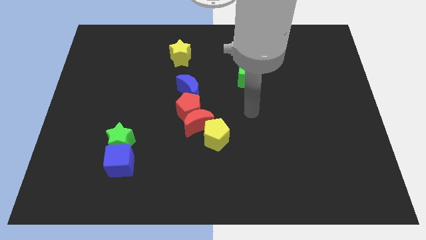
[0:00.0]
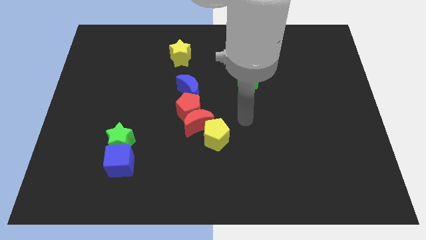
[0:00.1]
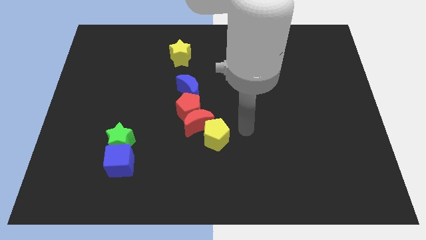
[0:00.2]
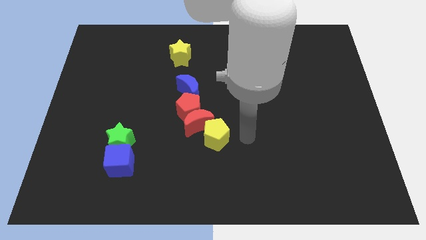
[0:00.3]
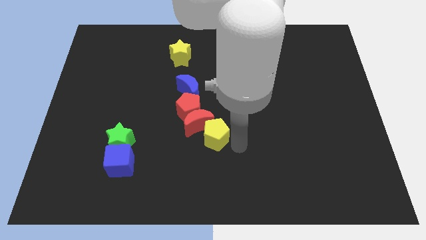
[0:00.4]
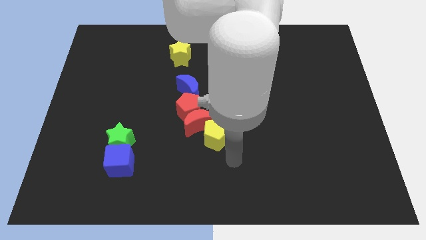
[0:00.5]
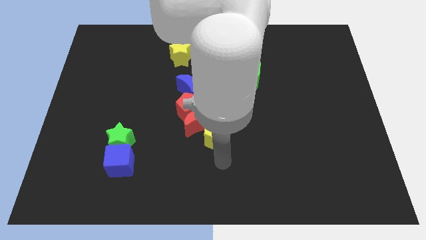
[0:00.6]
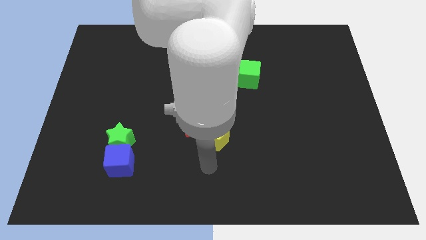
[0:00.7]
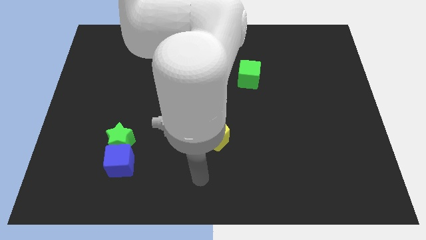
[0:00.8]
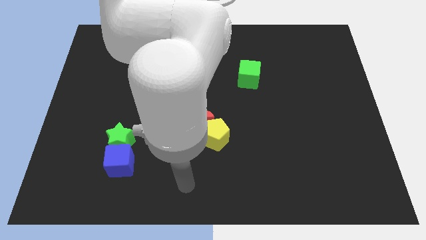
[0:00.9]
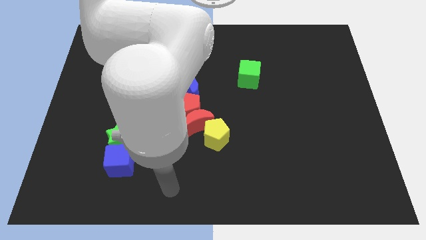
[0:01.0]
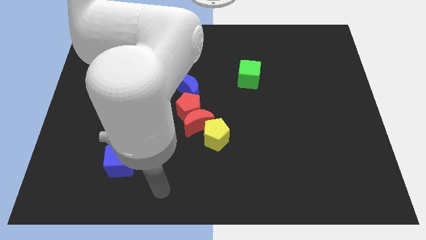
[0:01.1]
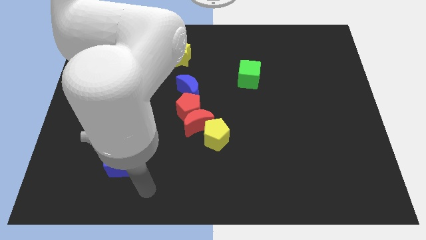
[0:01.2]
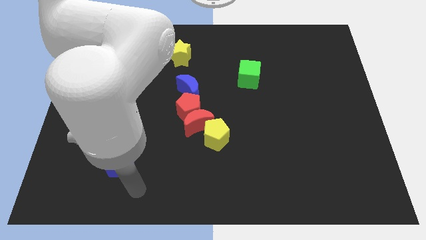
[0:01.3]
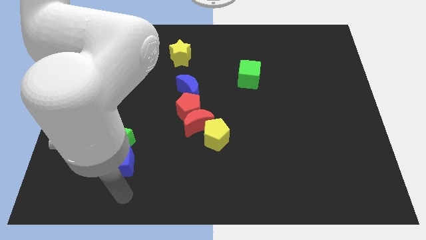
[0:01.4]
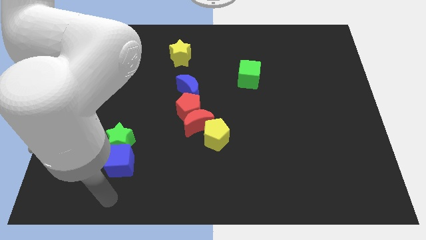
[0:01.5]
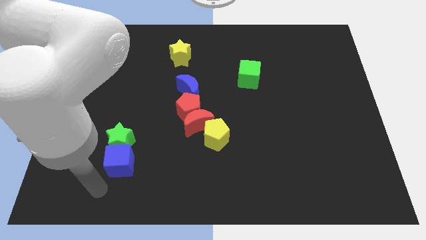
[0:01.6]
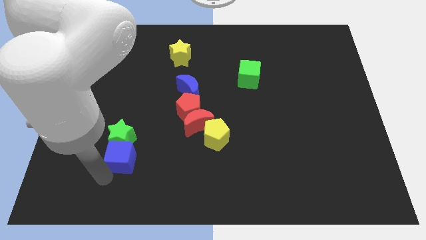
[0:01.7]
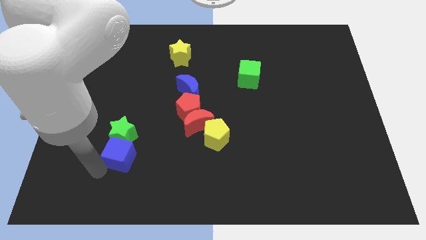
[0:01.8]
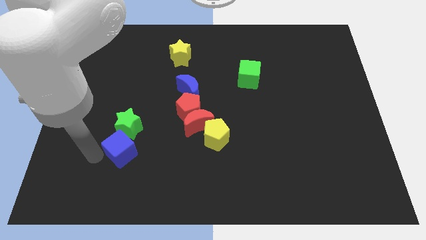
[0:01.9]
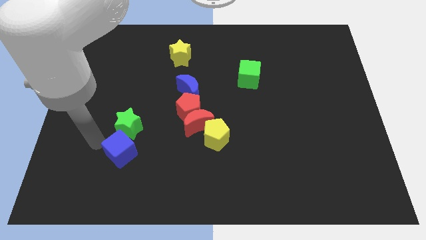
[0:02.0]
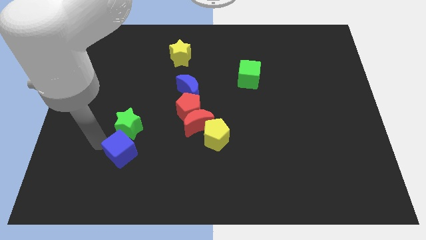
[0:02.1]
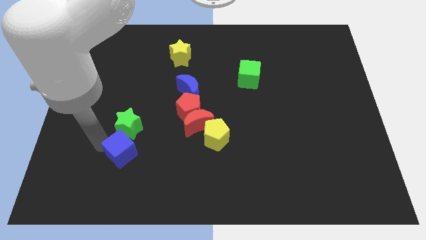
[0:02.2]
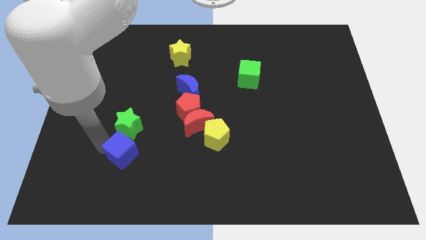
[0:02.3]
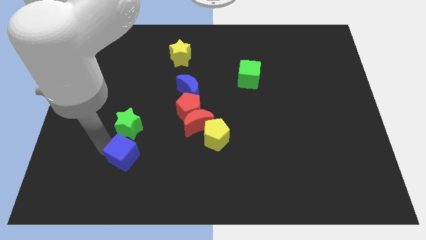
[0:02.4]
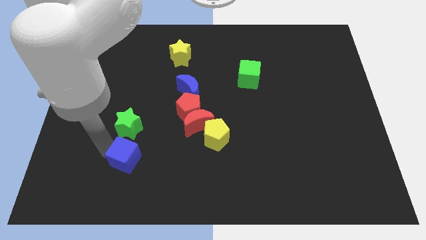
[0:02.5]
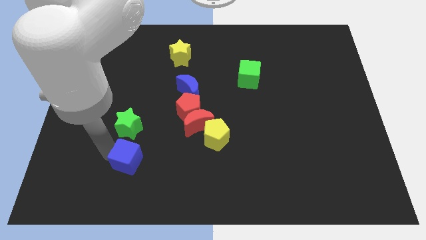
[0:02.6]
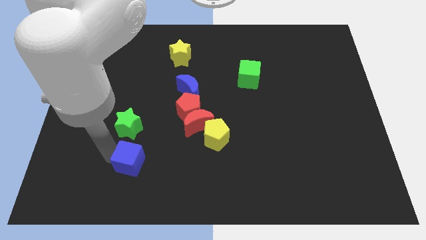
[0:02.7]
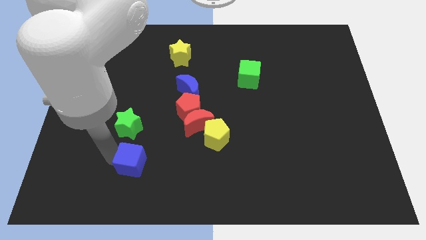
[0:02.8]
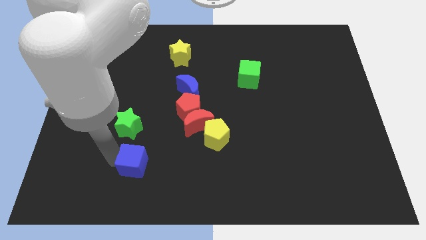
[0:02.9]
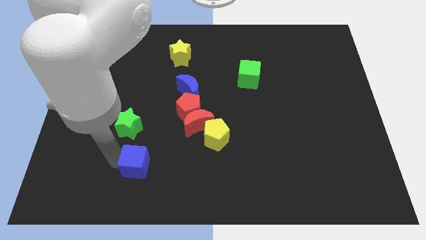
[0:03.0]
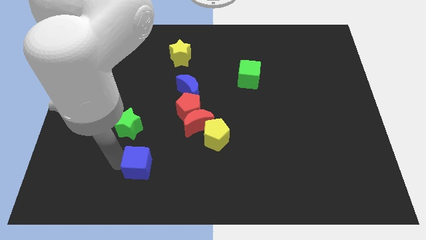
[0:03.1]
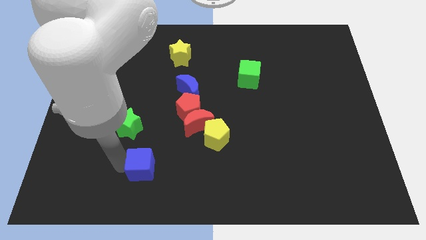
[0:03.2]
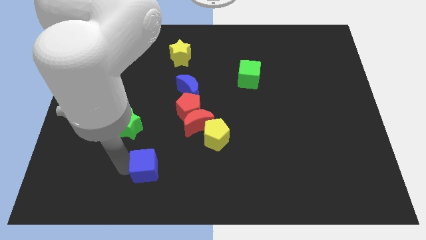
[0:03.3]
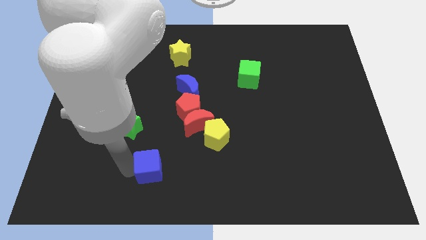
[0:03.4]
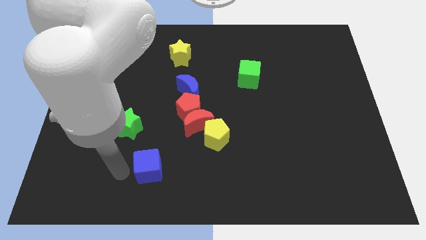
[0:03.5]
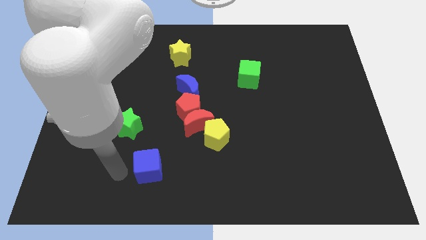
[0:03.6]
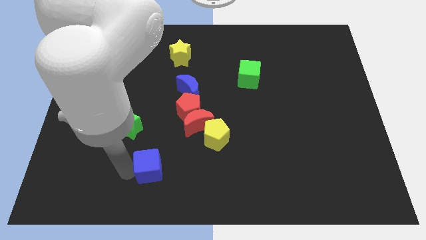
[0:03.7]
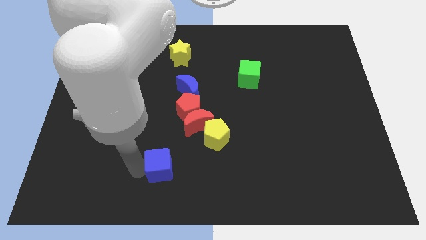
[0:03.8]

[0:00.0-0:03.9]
slightly move the blue cube right

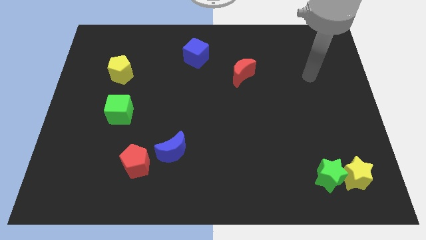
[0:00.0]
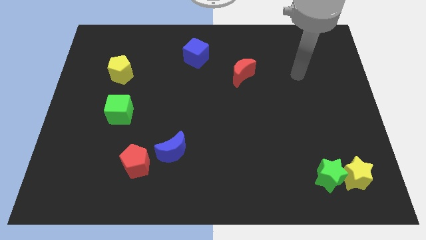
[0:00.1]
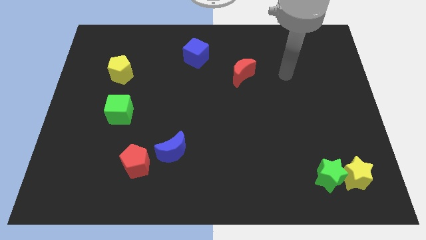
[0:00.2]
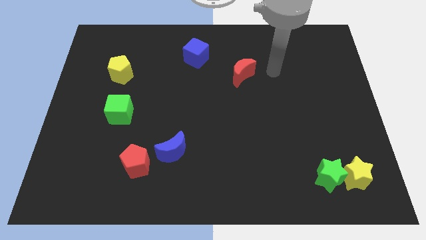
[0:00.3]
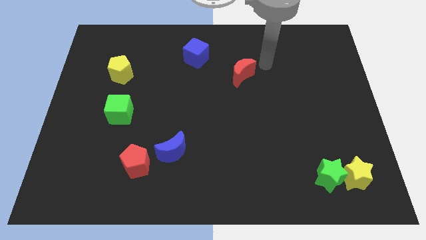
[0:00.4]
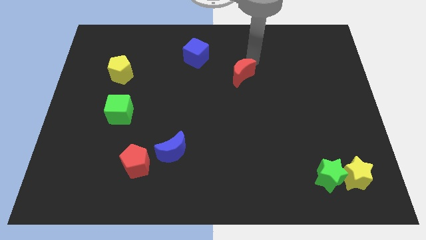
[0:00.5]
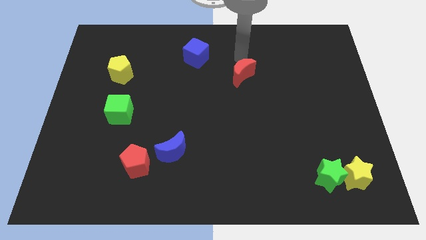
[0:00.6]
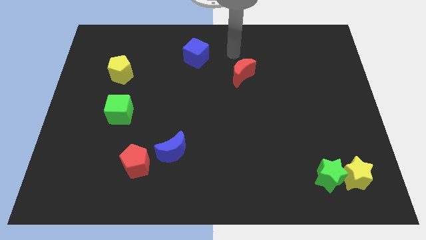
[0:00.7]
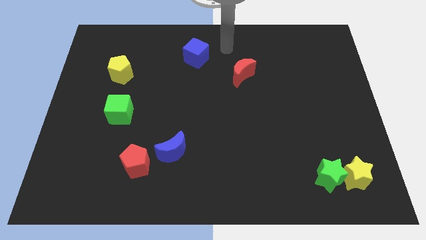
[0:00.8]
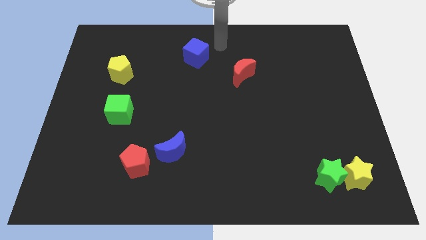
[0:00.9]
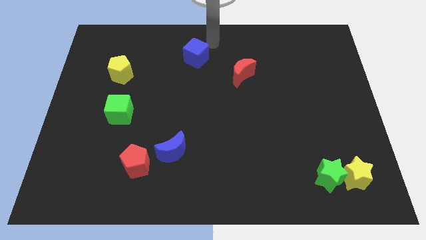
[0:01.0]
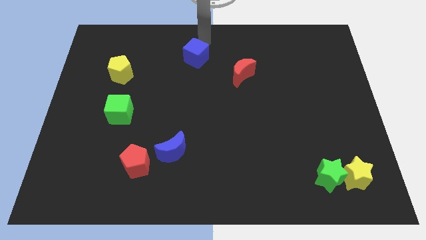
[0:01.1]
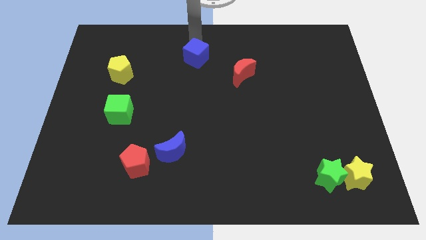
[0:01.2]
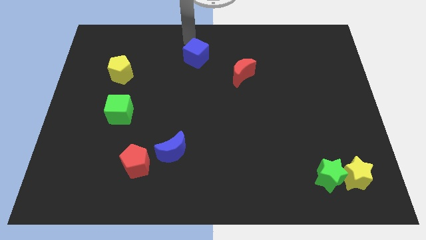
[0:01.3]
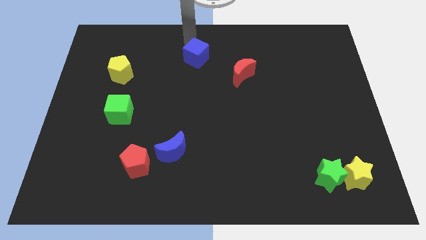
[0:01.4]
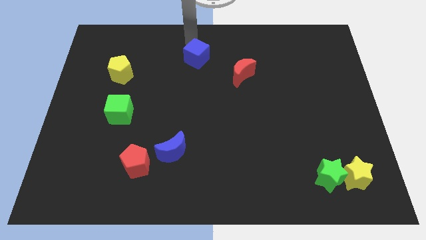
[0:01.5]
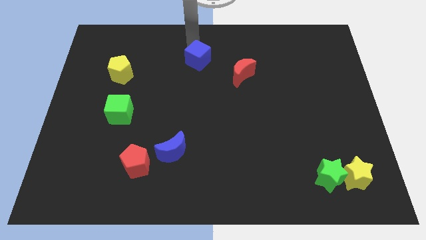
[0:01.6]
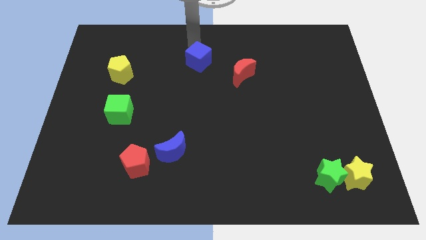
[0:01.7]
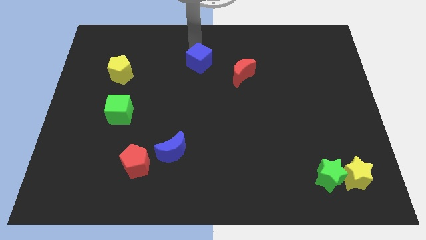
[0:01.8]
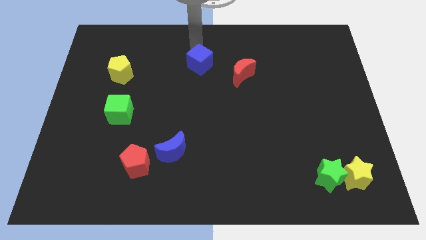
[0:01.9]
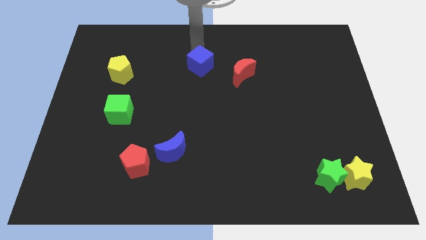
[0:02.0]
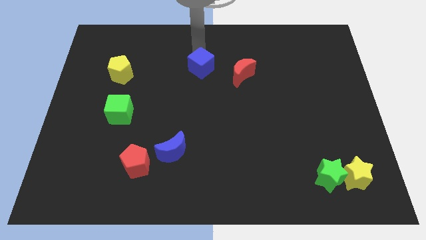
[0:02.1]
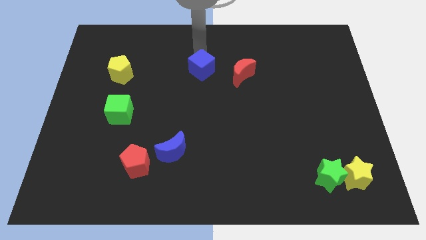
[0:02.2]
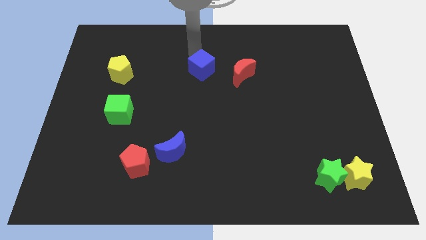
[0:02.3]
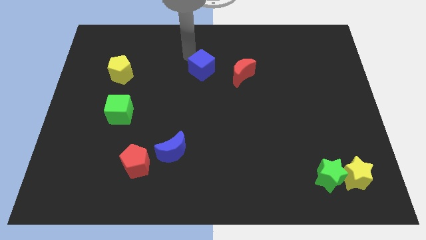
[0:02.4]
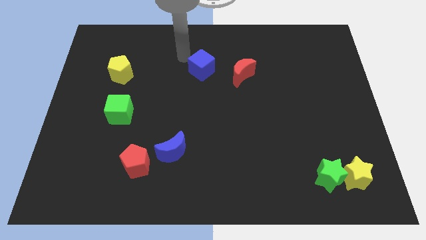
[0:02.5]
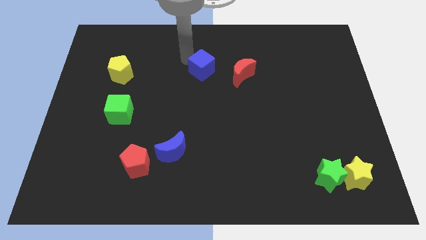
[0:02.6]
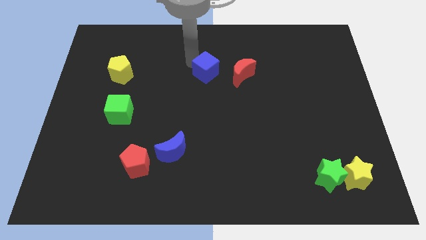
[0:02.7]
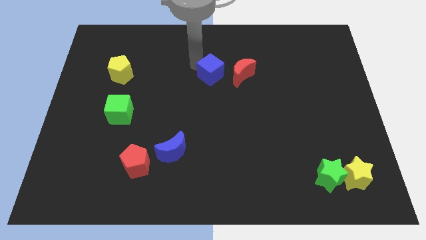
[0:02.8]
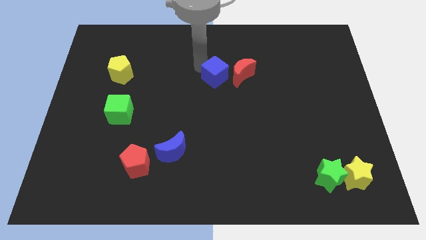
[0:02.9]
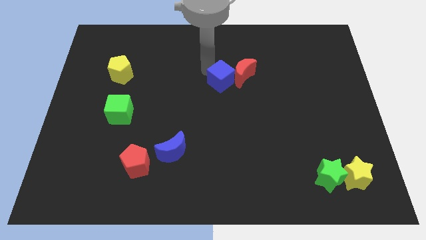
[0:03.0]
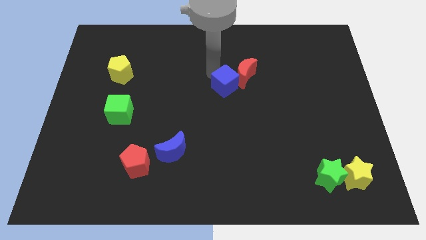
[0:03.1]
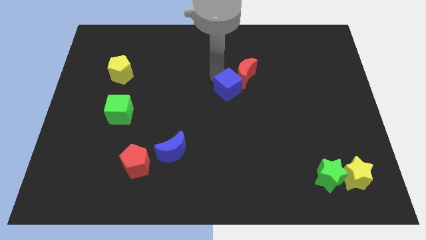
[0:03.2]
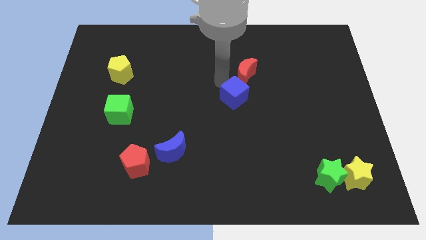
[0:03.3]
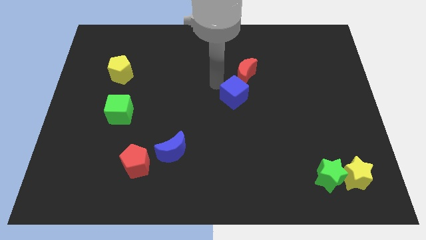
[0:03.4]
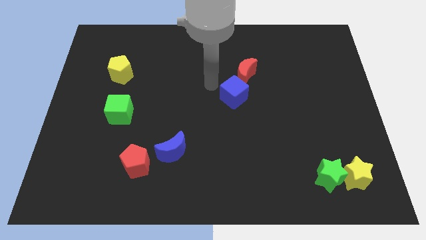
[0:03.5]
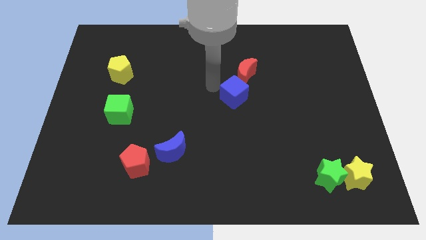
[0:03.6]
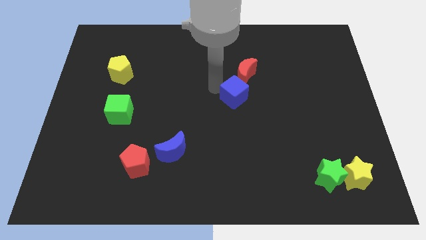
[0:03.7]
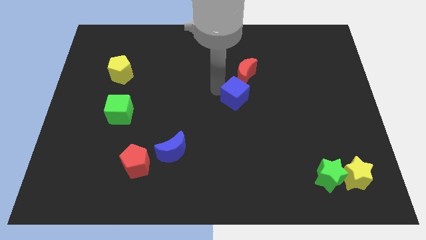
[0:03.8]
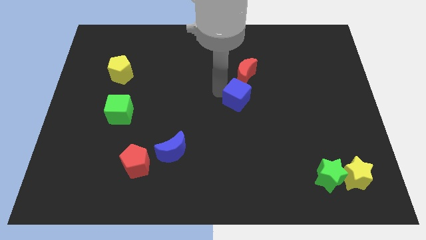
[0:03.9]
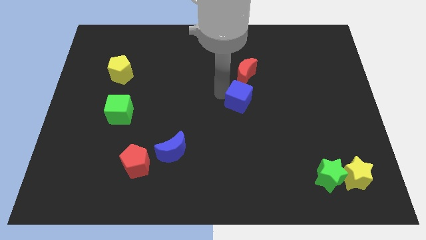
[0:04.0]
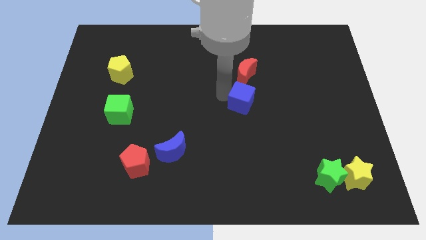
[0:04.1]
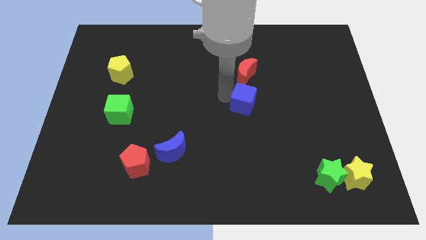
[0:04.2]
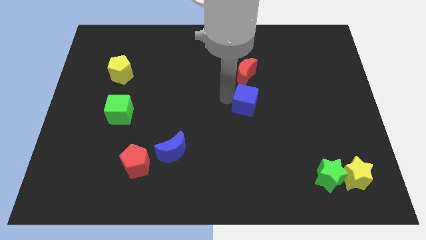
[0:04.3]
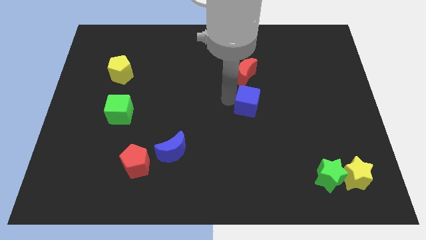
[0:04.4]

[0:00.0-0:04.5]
push the blue cube down and to the right diagonally
